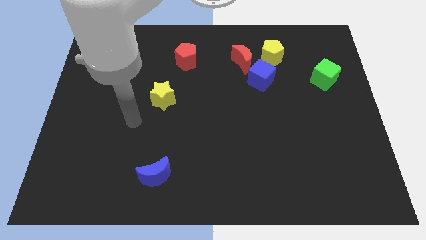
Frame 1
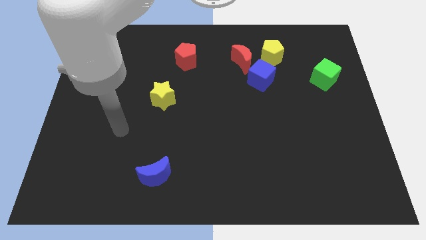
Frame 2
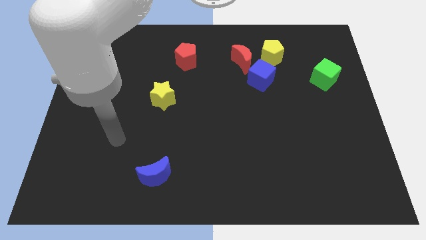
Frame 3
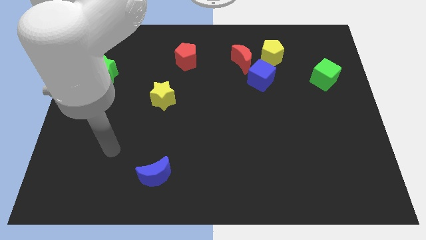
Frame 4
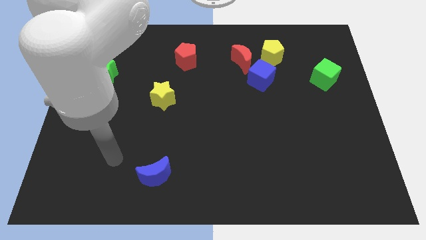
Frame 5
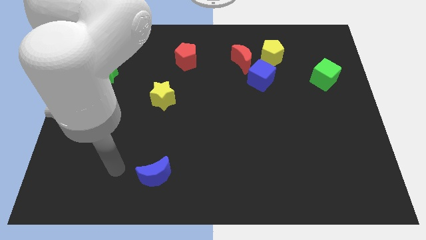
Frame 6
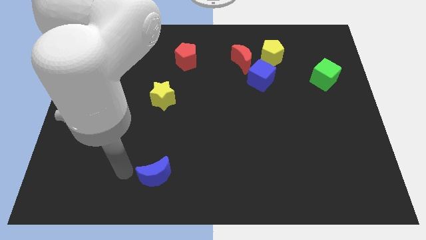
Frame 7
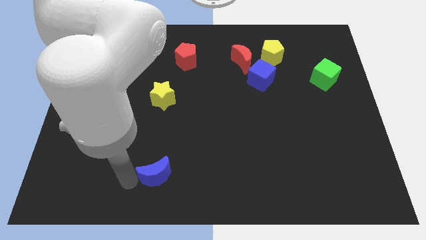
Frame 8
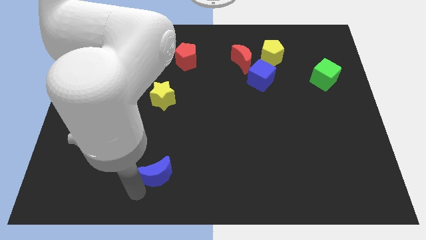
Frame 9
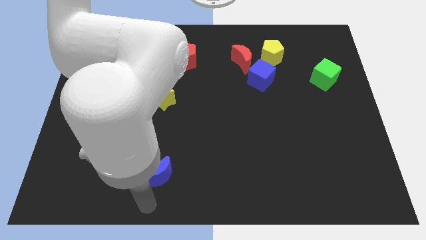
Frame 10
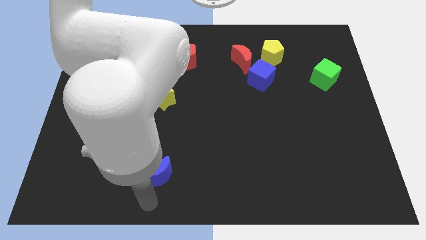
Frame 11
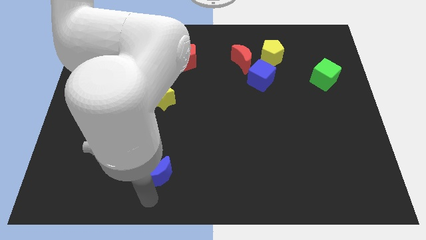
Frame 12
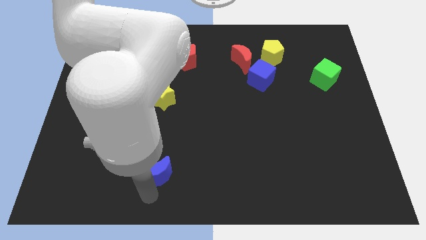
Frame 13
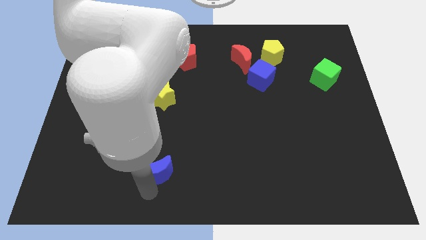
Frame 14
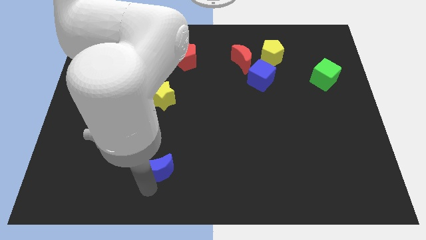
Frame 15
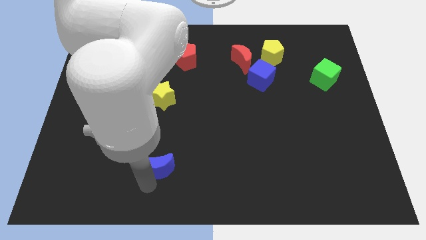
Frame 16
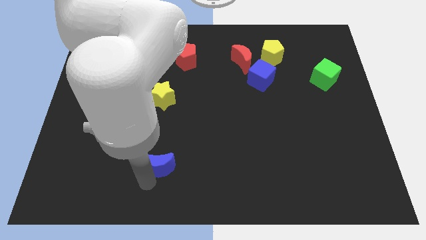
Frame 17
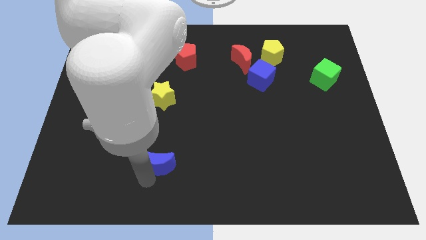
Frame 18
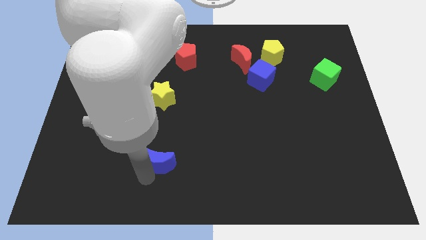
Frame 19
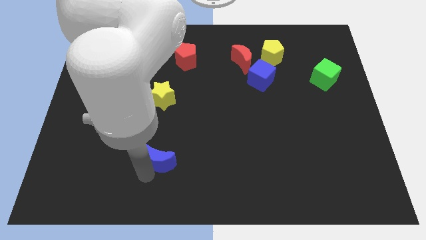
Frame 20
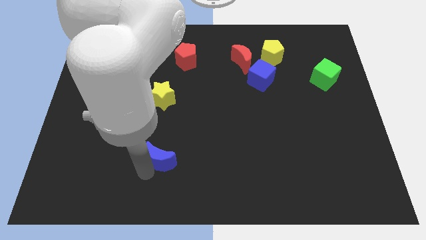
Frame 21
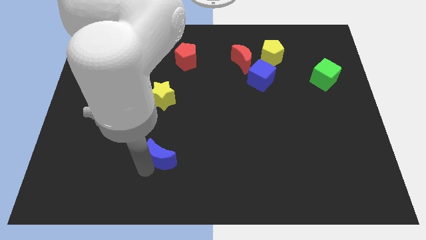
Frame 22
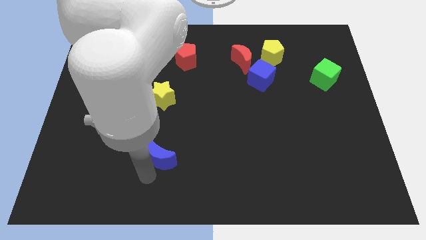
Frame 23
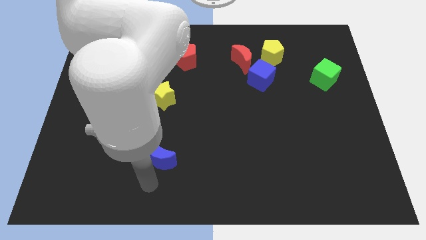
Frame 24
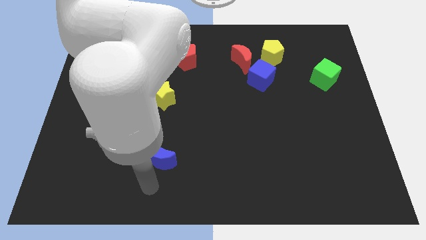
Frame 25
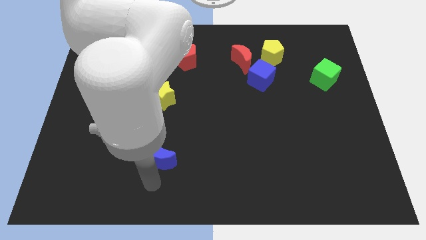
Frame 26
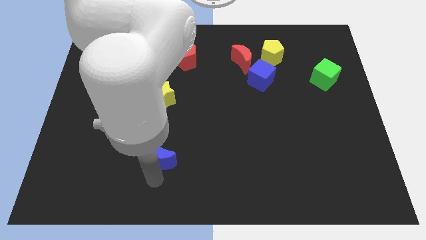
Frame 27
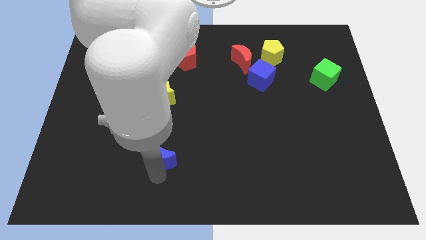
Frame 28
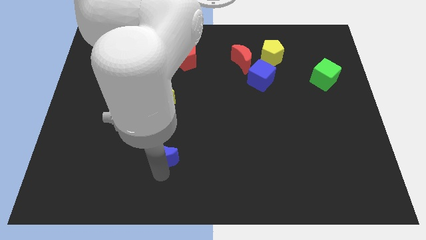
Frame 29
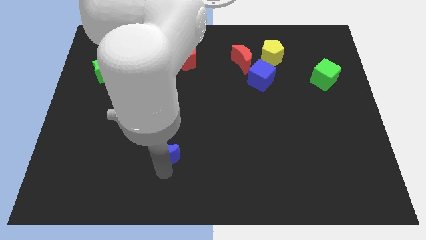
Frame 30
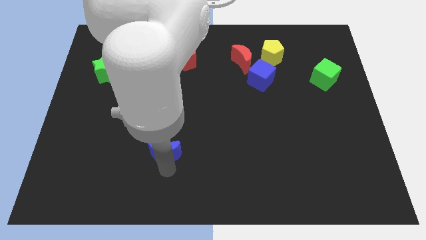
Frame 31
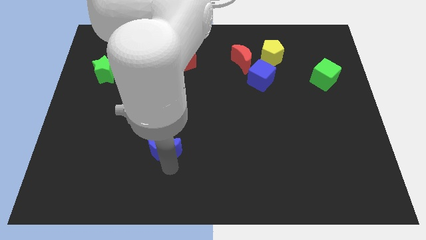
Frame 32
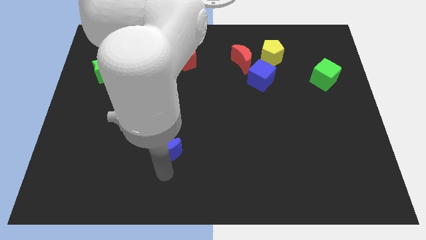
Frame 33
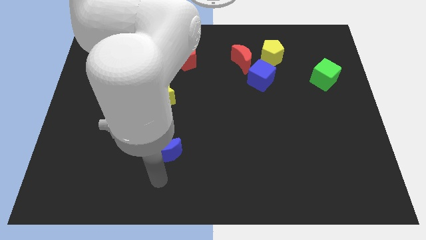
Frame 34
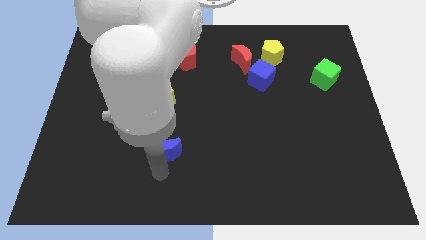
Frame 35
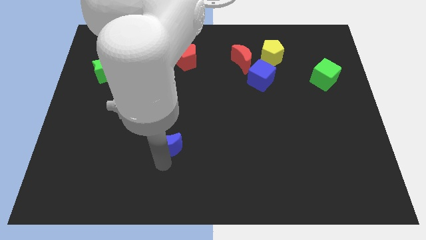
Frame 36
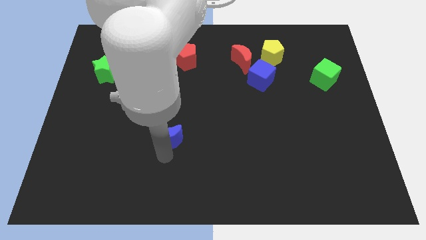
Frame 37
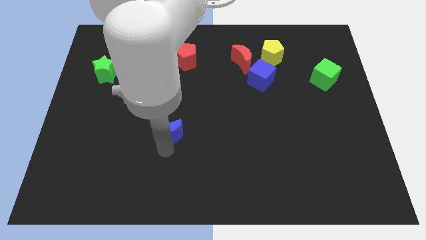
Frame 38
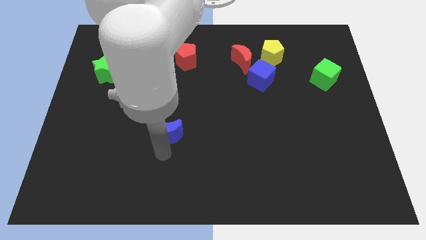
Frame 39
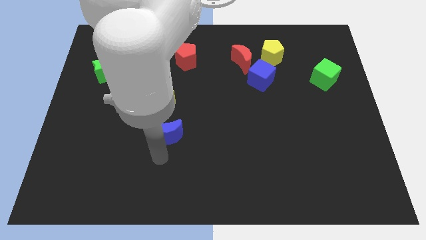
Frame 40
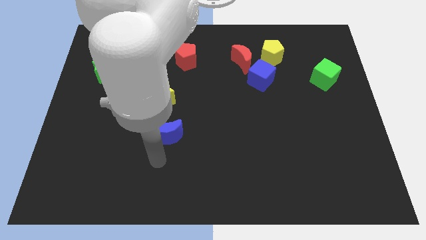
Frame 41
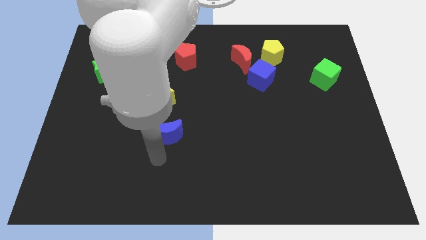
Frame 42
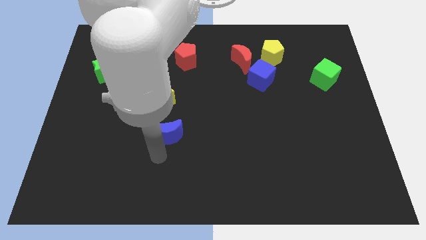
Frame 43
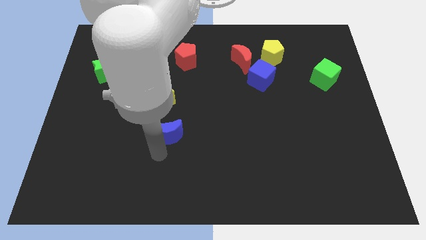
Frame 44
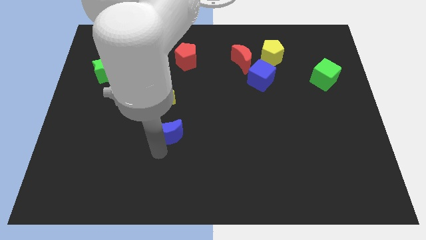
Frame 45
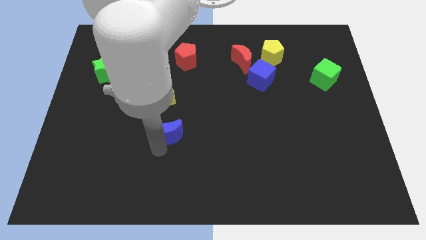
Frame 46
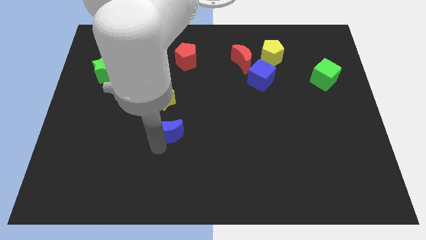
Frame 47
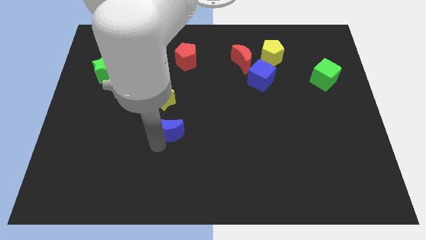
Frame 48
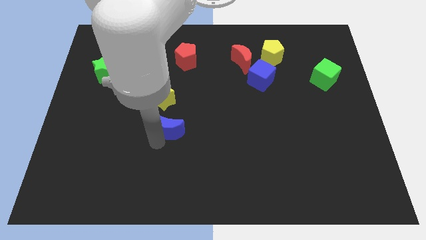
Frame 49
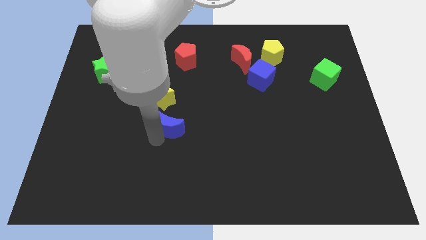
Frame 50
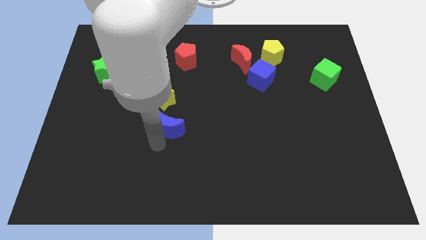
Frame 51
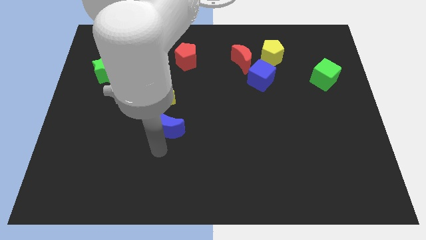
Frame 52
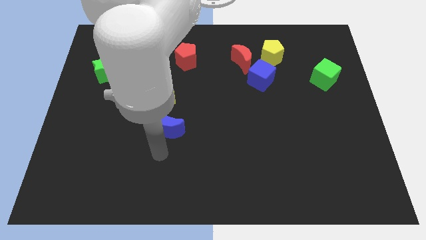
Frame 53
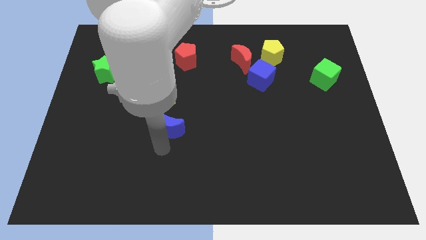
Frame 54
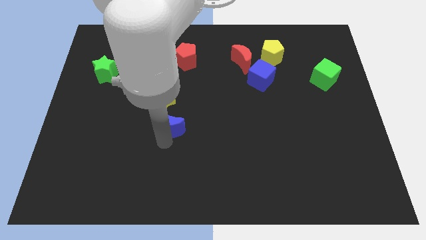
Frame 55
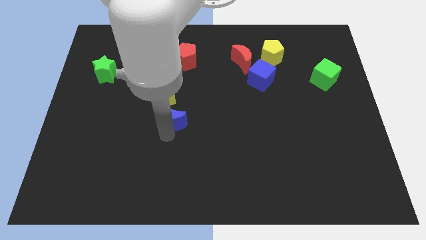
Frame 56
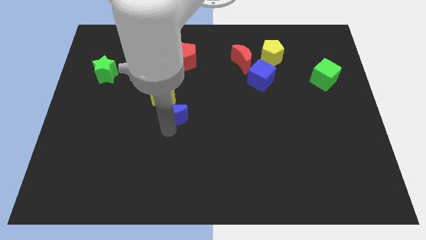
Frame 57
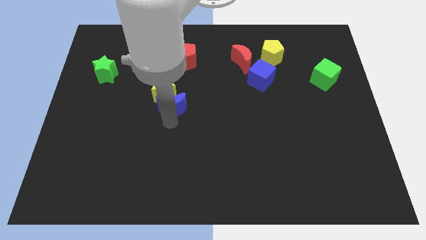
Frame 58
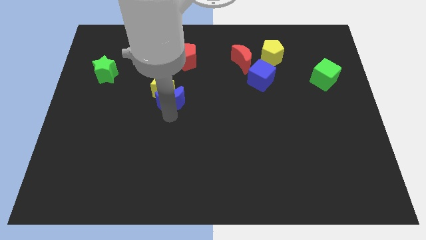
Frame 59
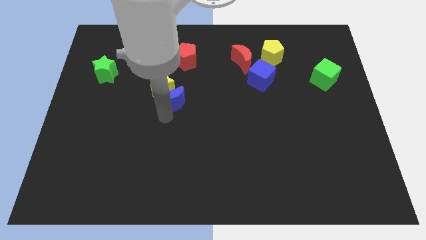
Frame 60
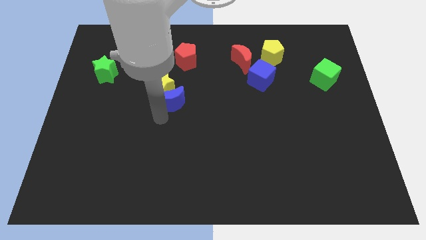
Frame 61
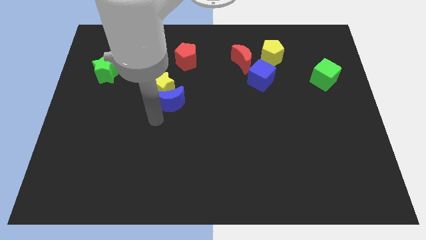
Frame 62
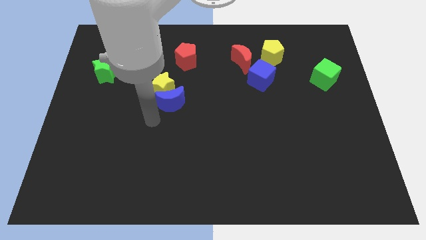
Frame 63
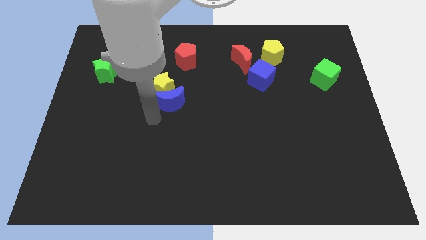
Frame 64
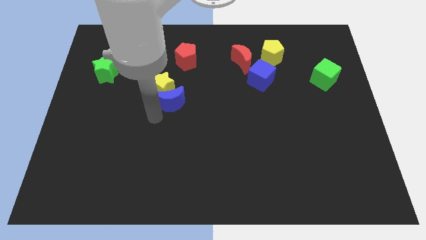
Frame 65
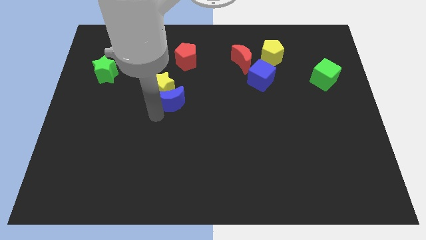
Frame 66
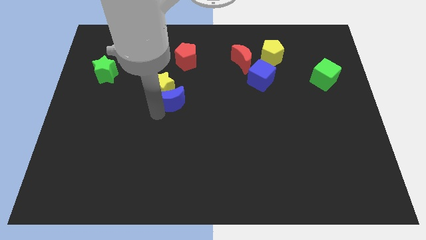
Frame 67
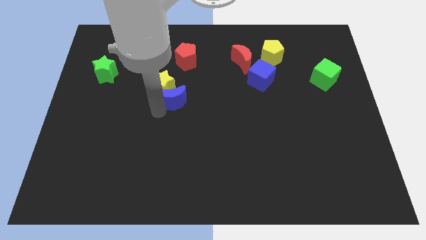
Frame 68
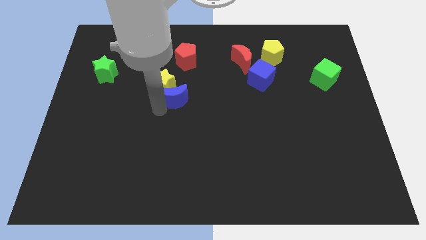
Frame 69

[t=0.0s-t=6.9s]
push the blue moon up

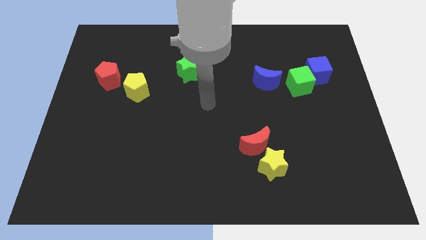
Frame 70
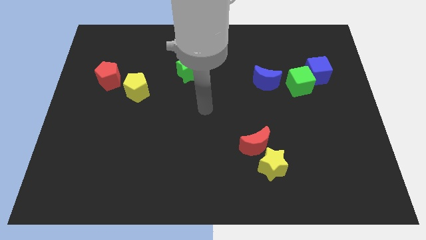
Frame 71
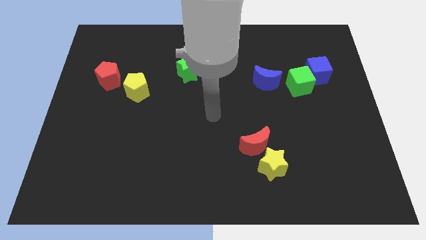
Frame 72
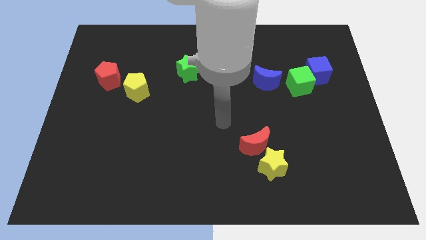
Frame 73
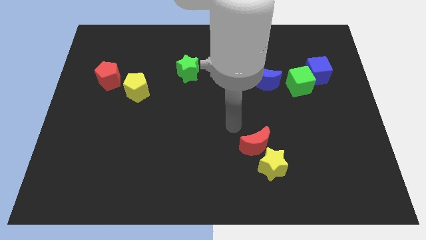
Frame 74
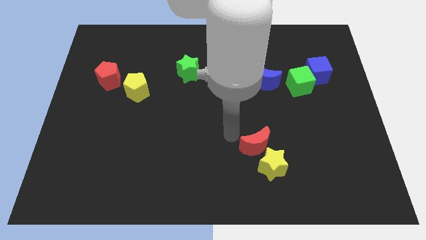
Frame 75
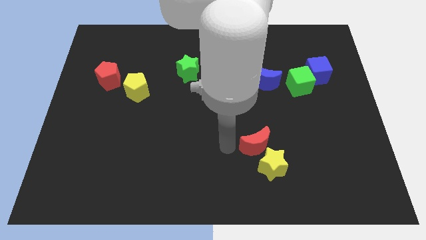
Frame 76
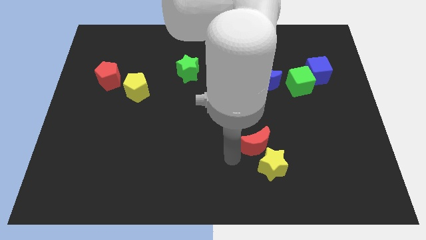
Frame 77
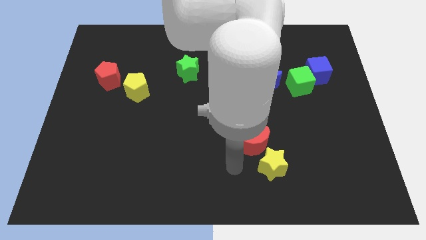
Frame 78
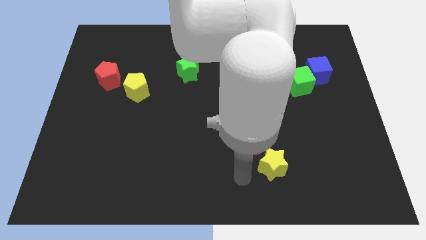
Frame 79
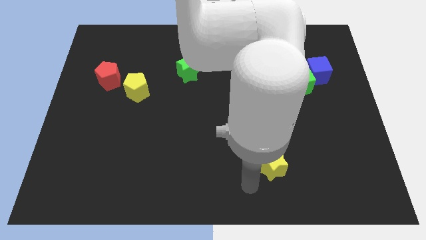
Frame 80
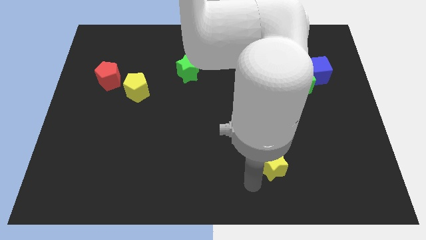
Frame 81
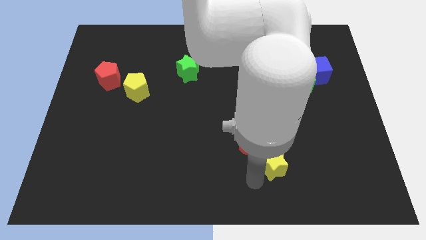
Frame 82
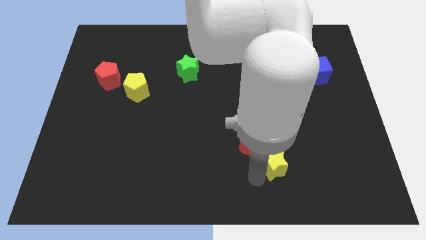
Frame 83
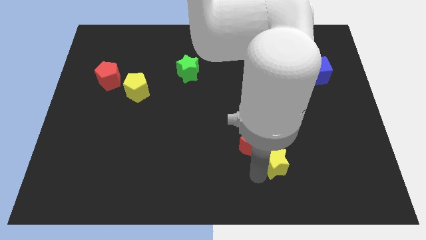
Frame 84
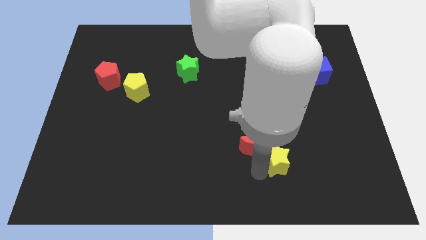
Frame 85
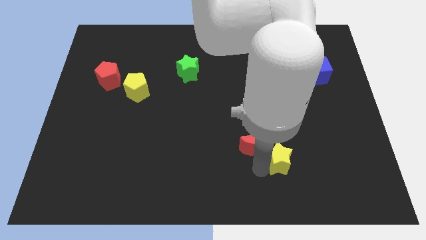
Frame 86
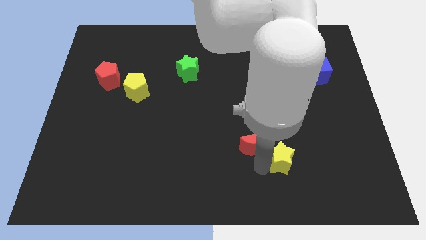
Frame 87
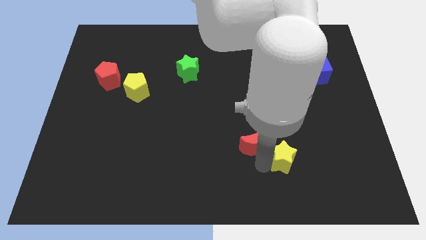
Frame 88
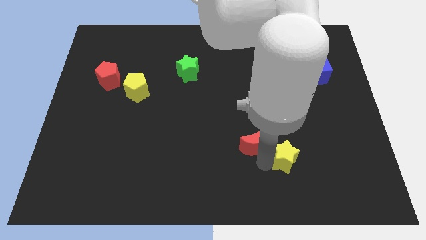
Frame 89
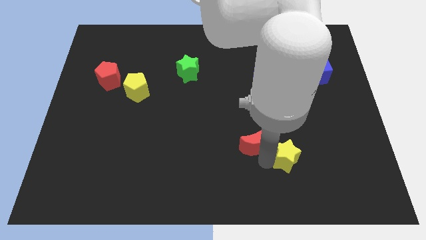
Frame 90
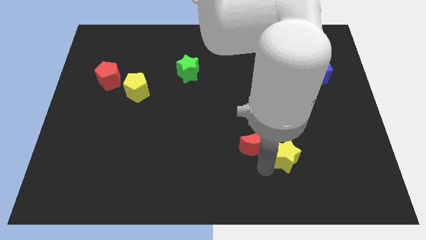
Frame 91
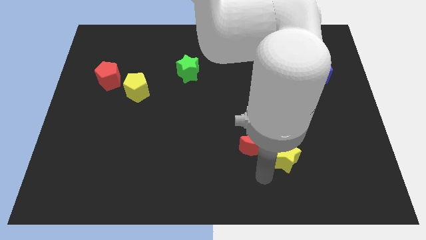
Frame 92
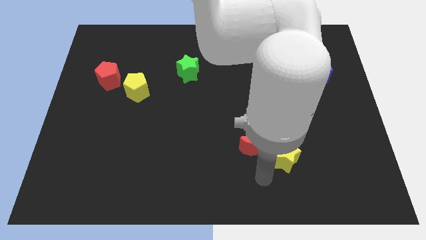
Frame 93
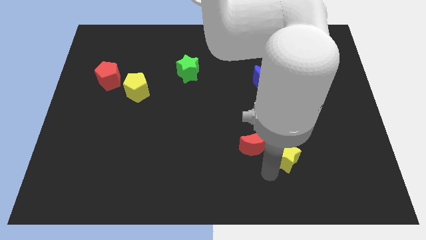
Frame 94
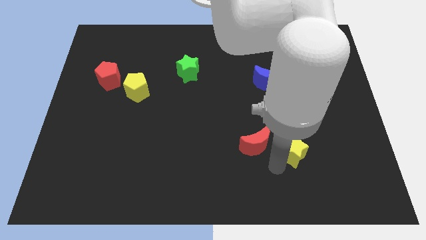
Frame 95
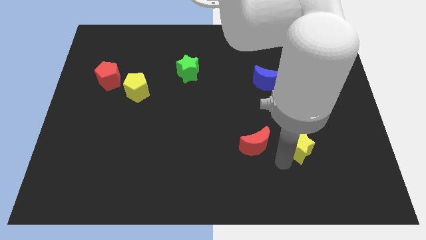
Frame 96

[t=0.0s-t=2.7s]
slide the yellow star slightly diagonally up and right
